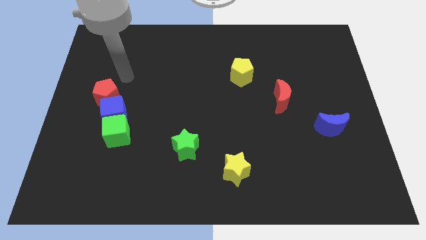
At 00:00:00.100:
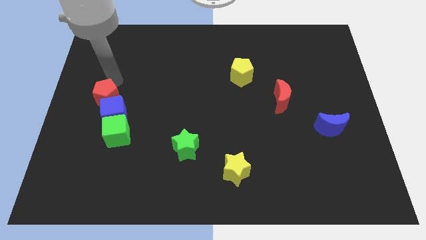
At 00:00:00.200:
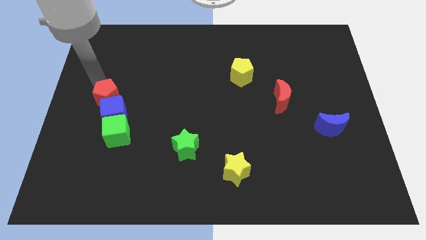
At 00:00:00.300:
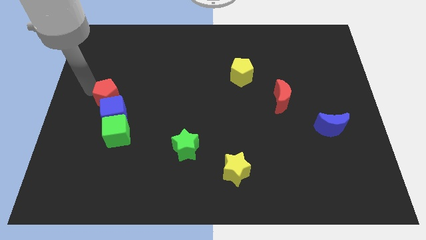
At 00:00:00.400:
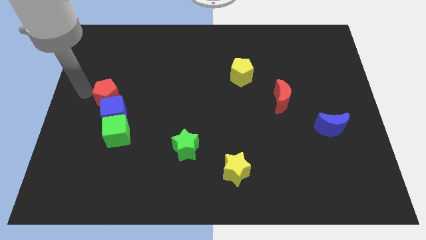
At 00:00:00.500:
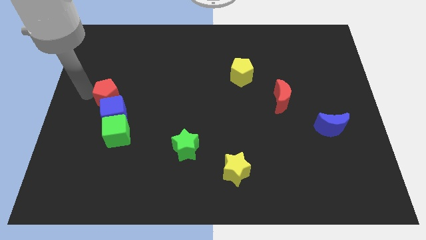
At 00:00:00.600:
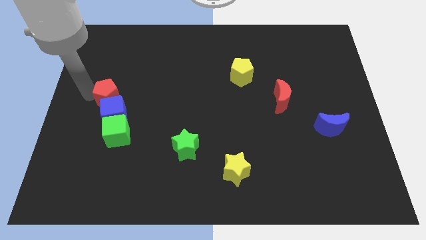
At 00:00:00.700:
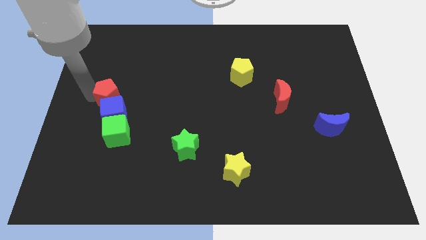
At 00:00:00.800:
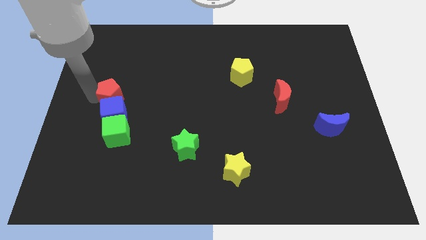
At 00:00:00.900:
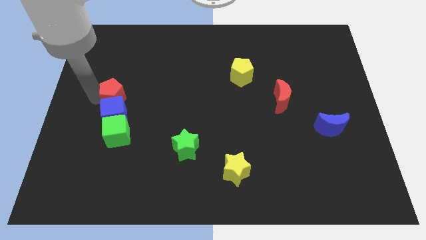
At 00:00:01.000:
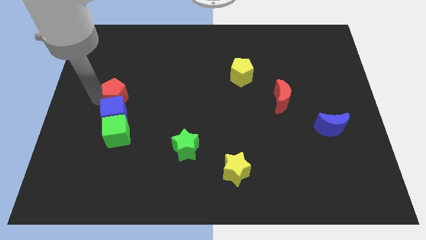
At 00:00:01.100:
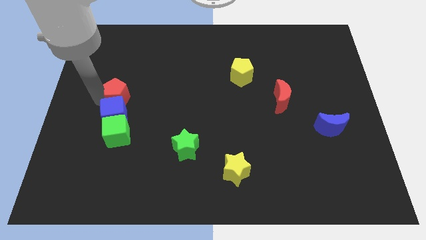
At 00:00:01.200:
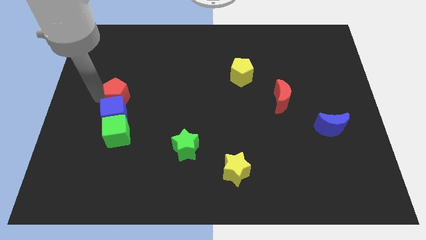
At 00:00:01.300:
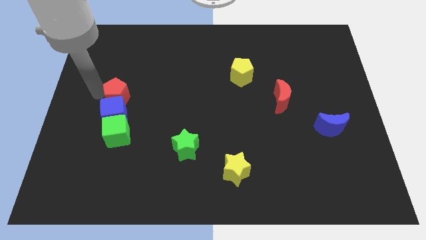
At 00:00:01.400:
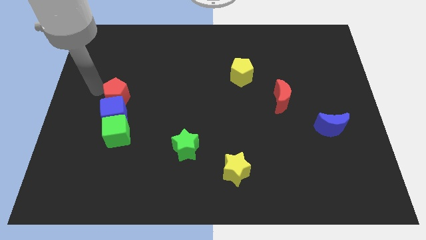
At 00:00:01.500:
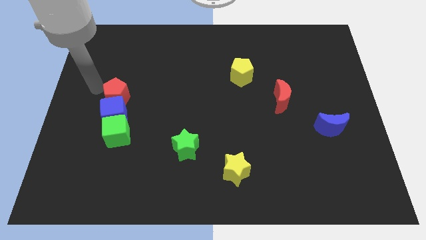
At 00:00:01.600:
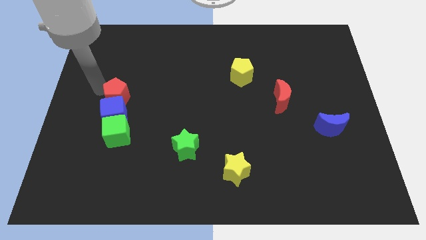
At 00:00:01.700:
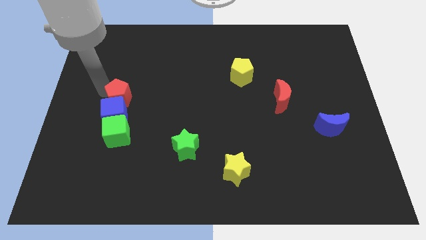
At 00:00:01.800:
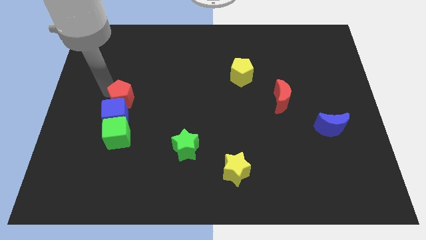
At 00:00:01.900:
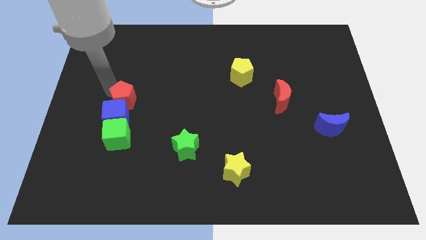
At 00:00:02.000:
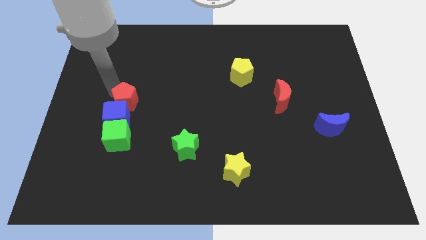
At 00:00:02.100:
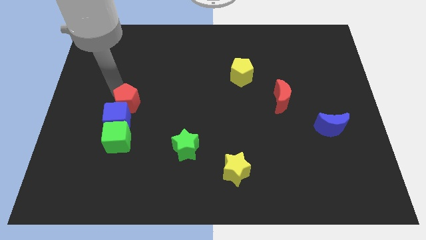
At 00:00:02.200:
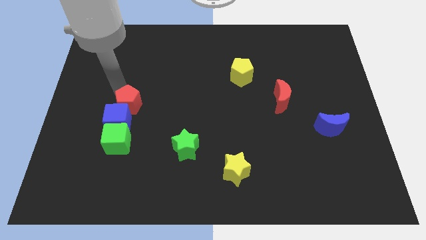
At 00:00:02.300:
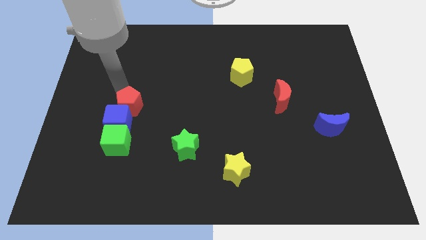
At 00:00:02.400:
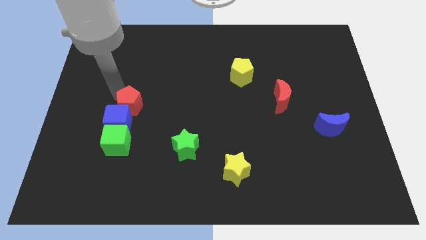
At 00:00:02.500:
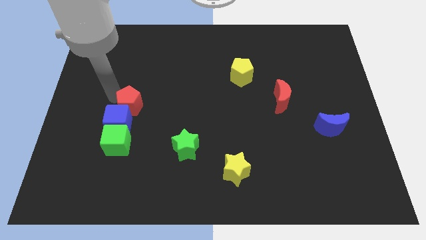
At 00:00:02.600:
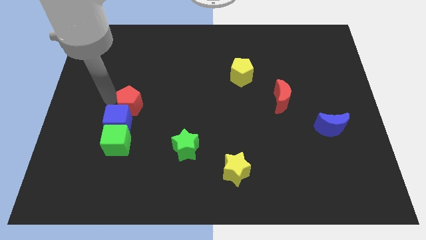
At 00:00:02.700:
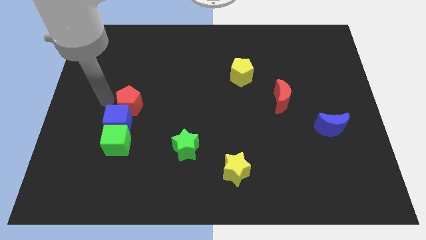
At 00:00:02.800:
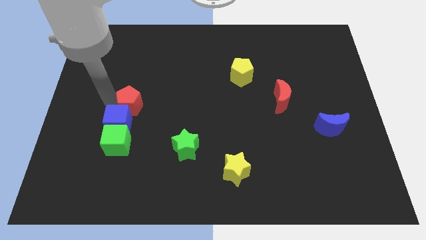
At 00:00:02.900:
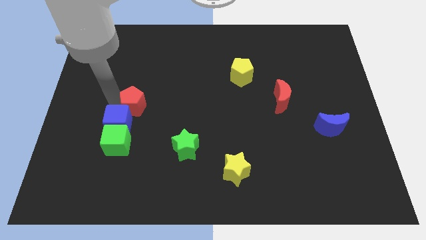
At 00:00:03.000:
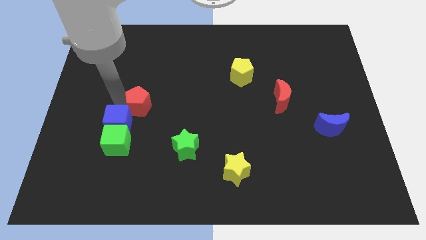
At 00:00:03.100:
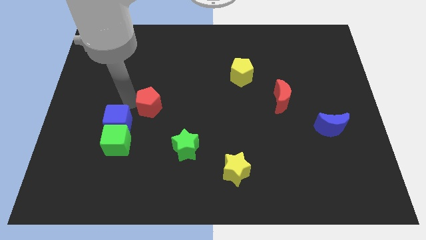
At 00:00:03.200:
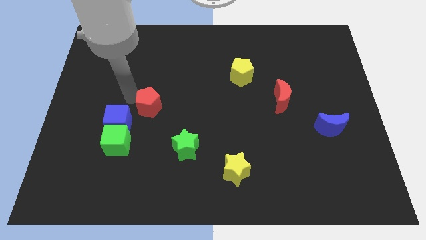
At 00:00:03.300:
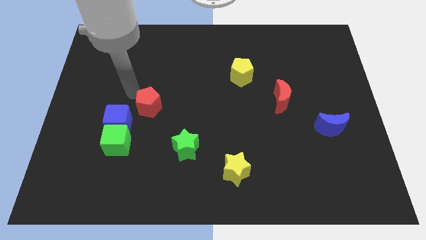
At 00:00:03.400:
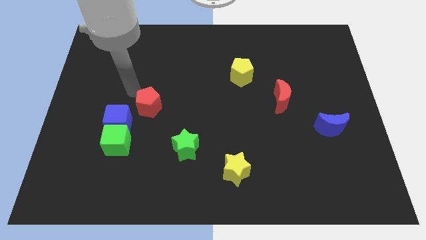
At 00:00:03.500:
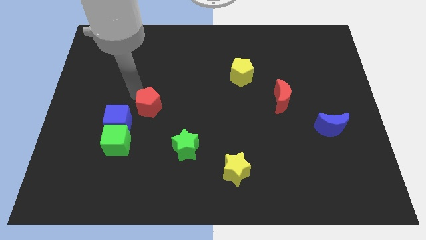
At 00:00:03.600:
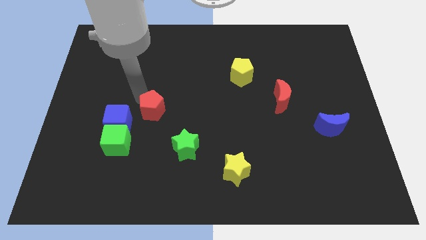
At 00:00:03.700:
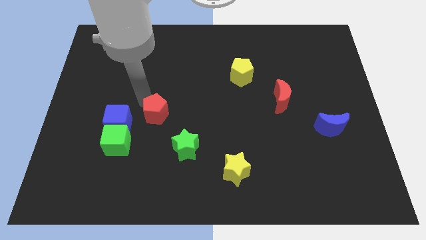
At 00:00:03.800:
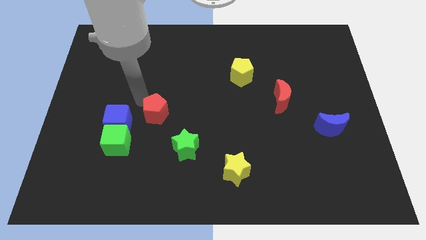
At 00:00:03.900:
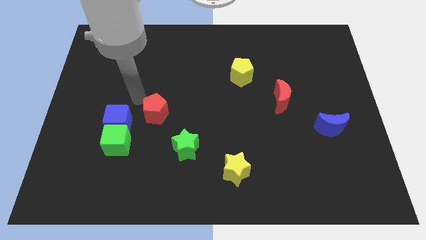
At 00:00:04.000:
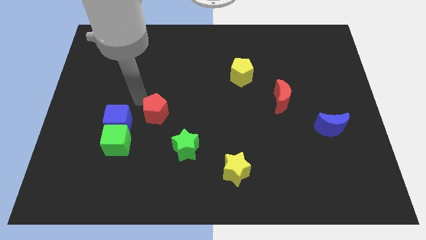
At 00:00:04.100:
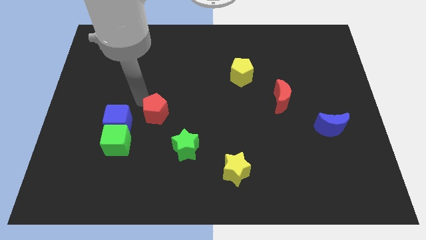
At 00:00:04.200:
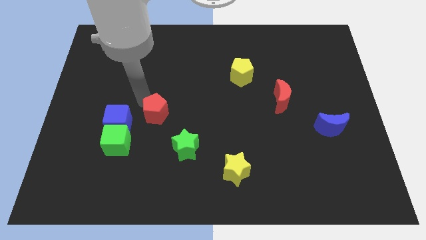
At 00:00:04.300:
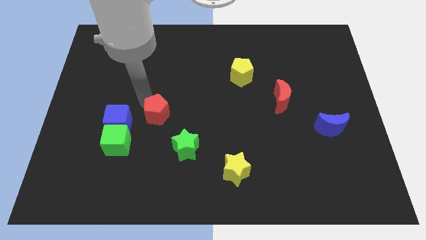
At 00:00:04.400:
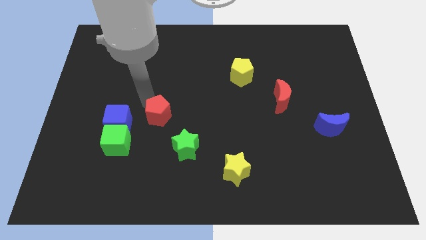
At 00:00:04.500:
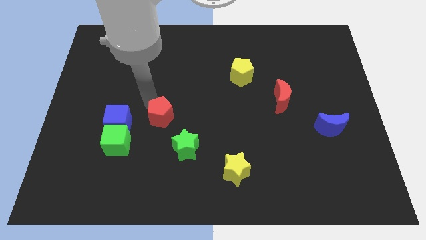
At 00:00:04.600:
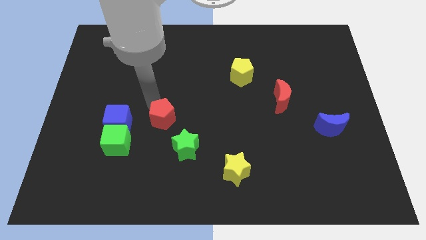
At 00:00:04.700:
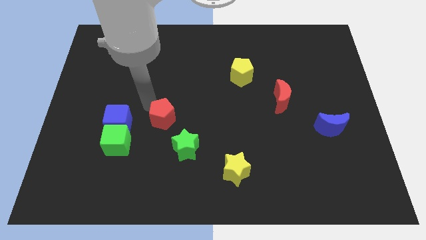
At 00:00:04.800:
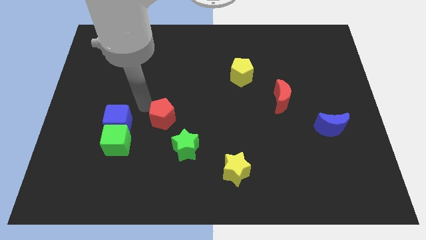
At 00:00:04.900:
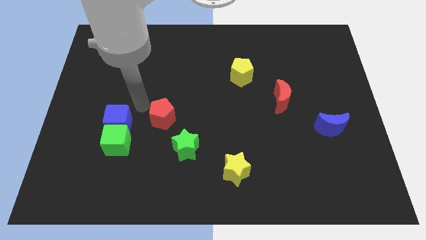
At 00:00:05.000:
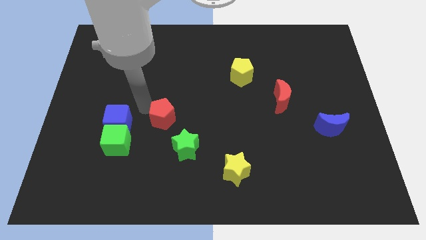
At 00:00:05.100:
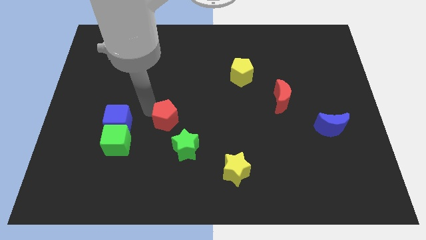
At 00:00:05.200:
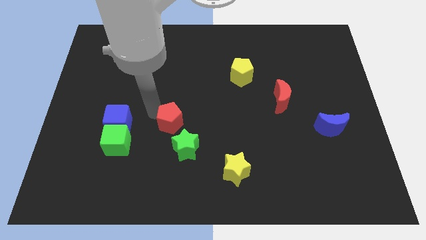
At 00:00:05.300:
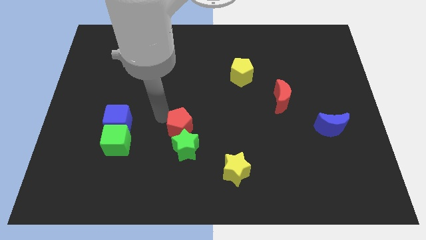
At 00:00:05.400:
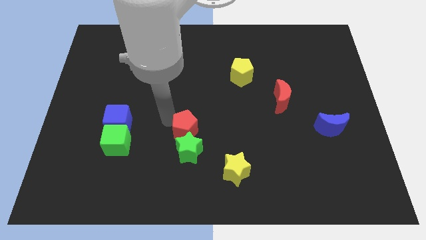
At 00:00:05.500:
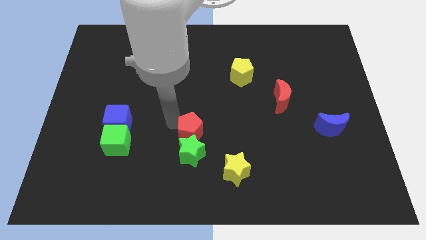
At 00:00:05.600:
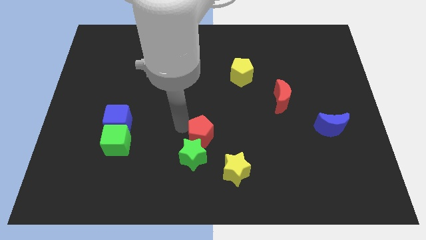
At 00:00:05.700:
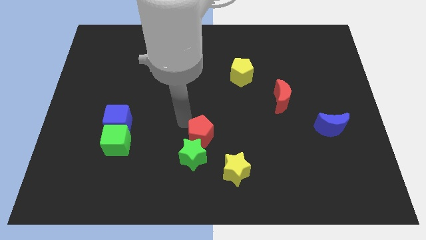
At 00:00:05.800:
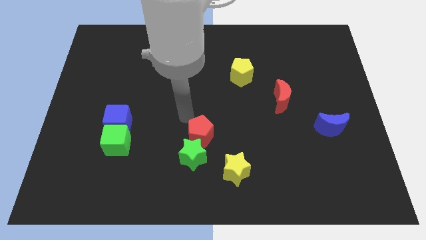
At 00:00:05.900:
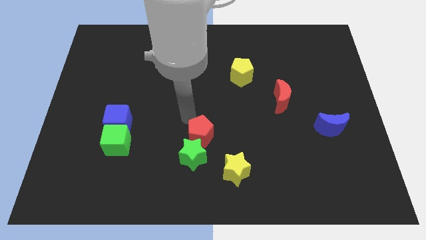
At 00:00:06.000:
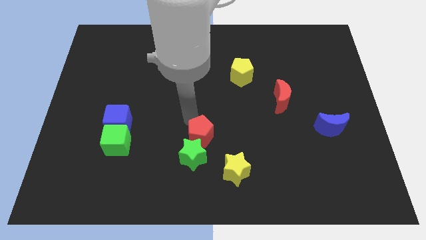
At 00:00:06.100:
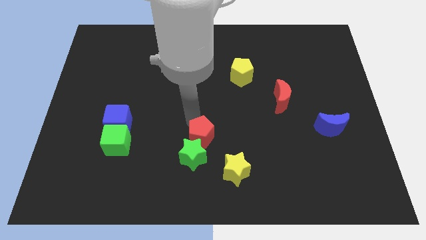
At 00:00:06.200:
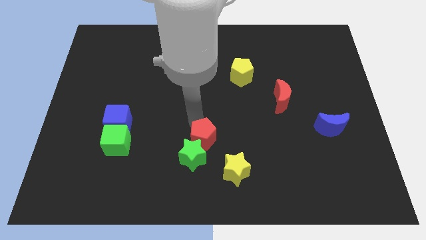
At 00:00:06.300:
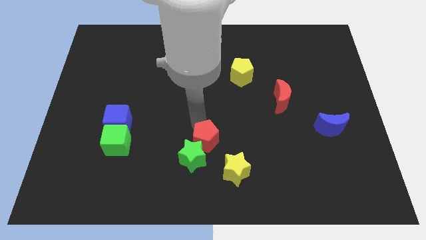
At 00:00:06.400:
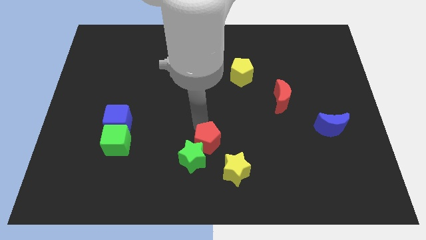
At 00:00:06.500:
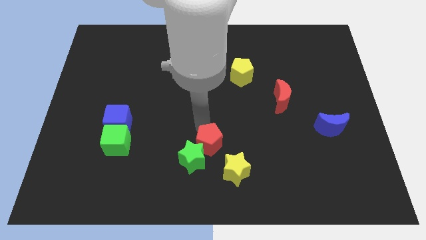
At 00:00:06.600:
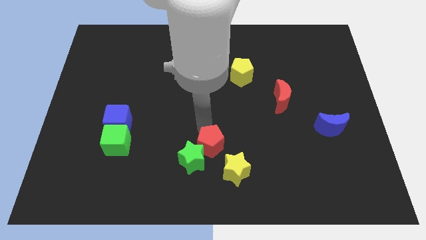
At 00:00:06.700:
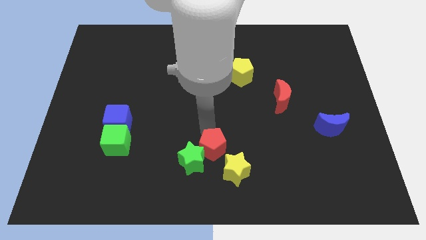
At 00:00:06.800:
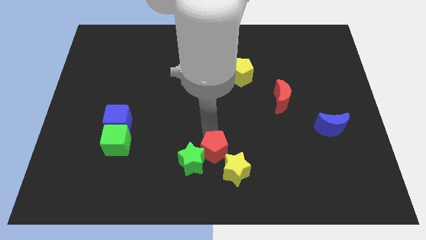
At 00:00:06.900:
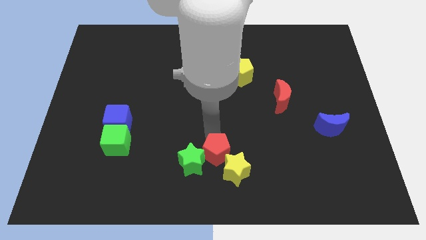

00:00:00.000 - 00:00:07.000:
push the red pentagon to the yellow star

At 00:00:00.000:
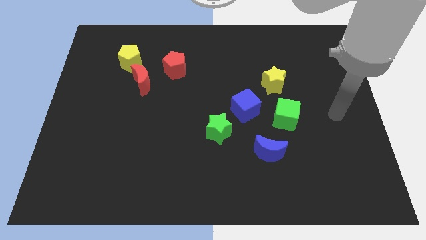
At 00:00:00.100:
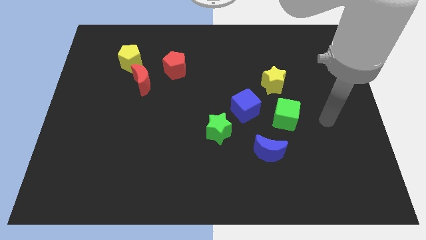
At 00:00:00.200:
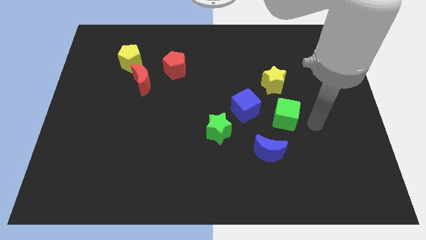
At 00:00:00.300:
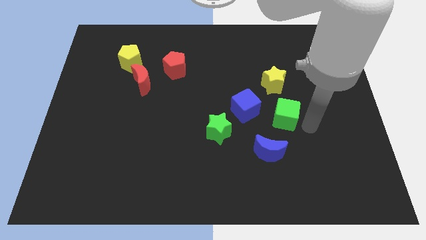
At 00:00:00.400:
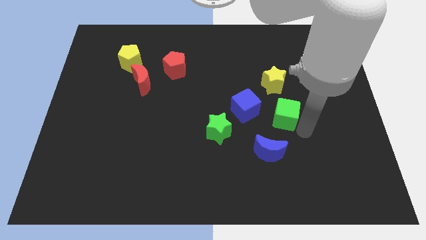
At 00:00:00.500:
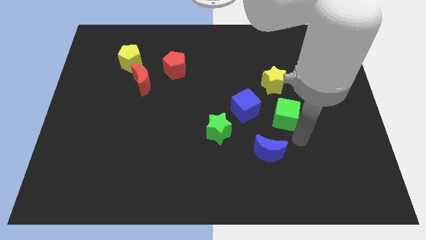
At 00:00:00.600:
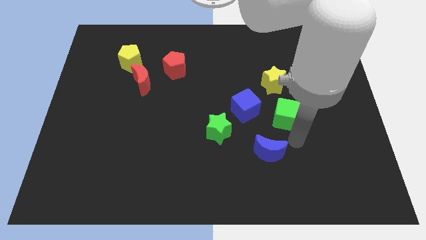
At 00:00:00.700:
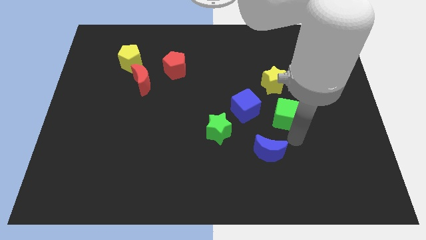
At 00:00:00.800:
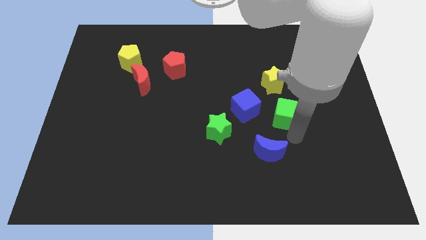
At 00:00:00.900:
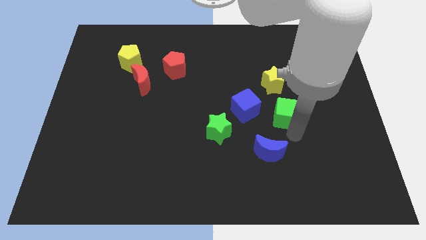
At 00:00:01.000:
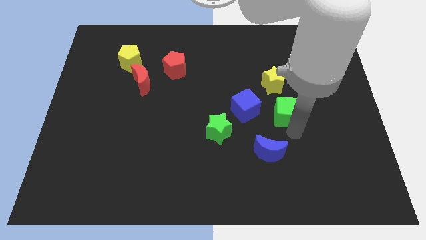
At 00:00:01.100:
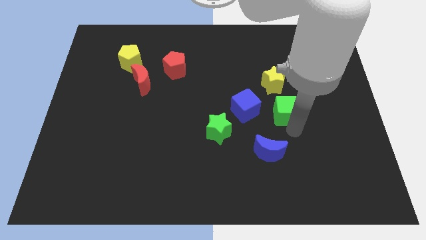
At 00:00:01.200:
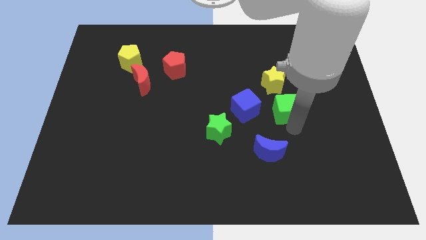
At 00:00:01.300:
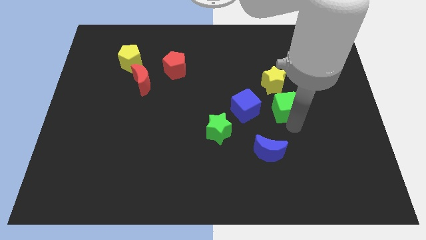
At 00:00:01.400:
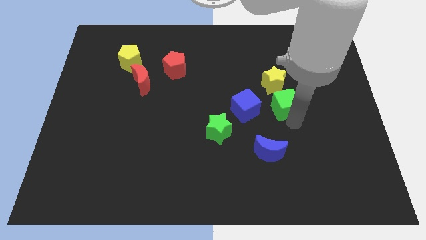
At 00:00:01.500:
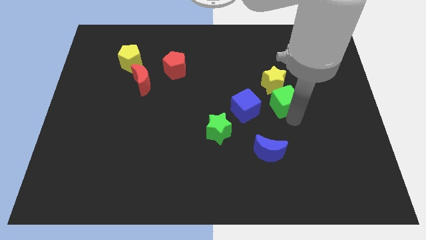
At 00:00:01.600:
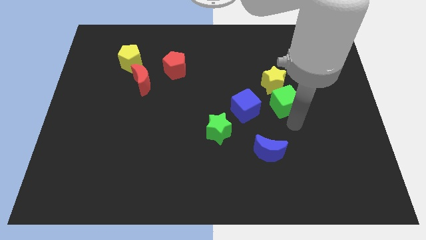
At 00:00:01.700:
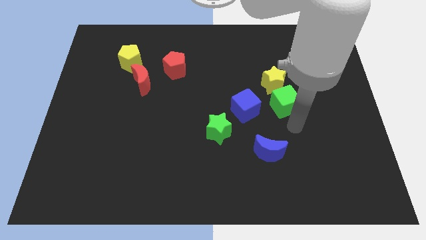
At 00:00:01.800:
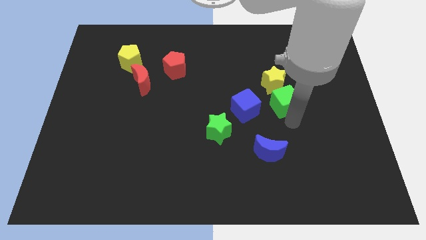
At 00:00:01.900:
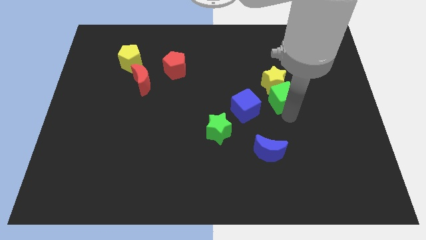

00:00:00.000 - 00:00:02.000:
move the green cube close to the yellow star
